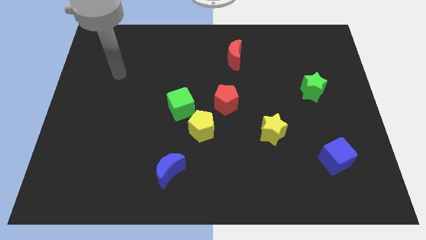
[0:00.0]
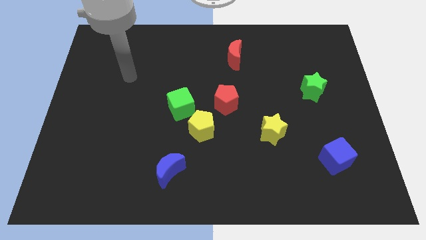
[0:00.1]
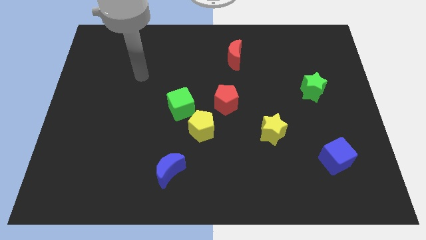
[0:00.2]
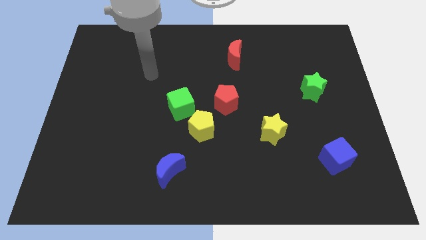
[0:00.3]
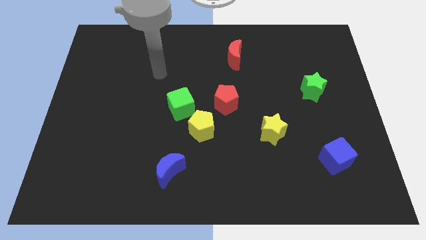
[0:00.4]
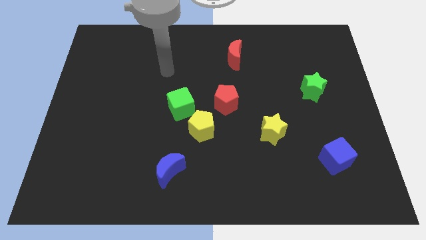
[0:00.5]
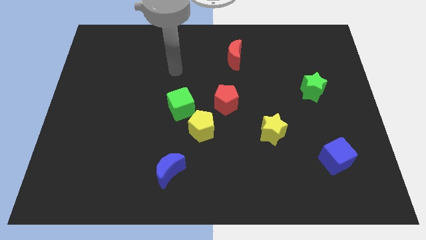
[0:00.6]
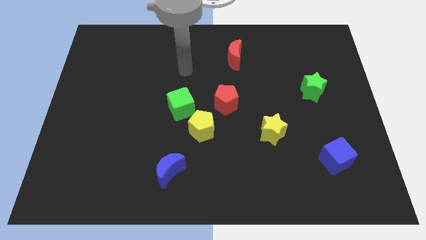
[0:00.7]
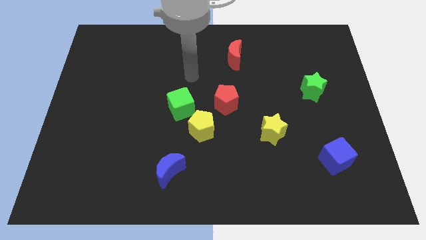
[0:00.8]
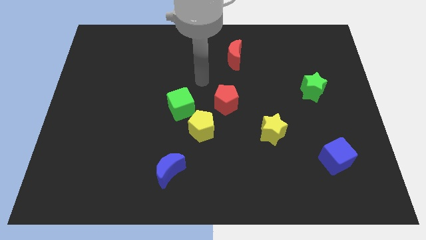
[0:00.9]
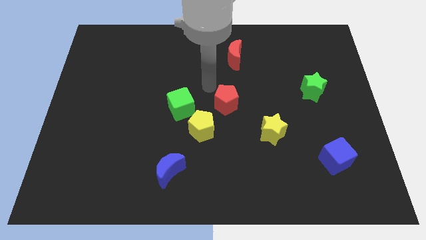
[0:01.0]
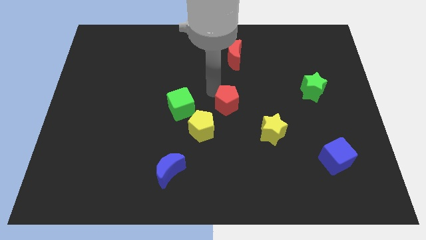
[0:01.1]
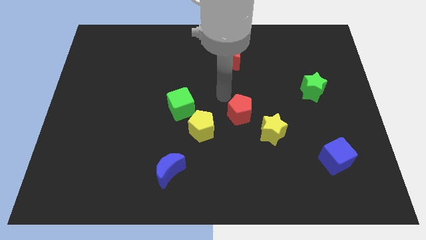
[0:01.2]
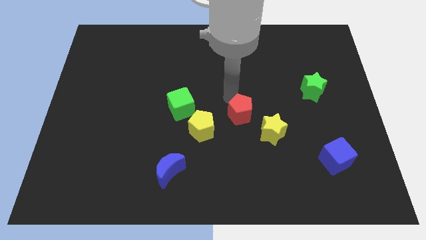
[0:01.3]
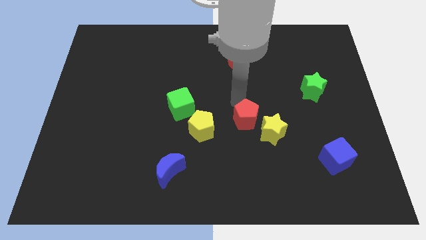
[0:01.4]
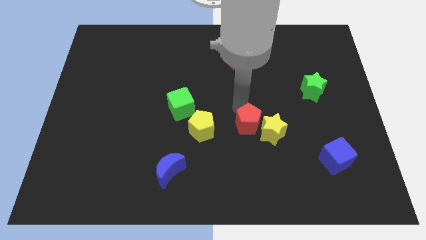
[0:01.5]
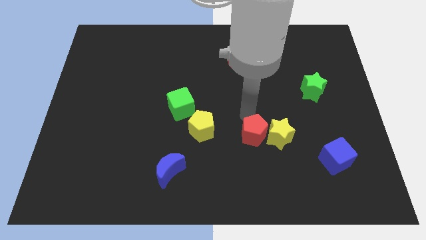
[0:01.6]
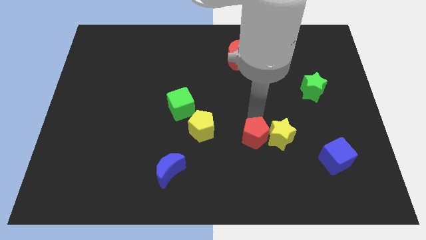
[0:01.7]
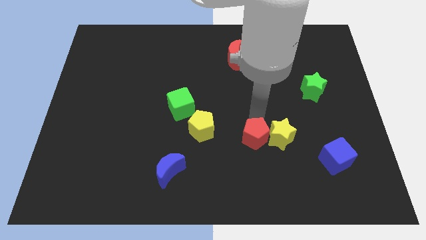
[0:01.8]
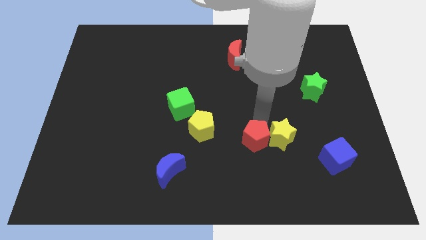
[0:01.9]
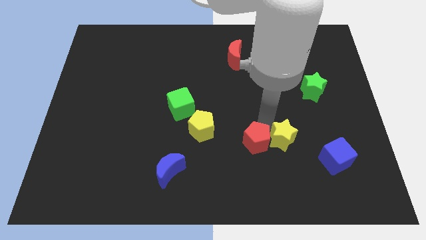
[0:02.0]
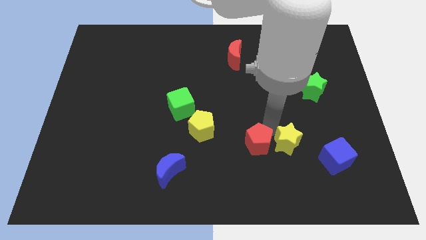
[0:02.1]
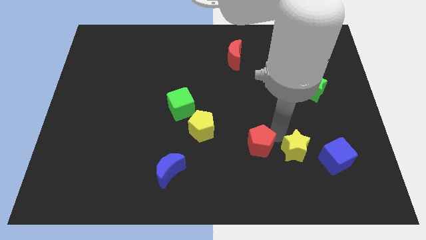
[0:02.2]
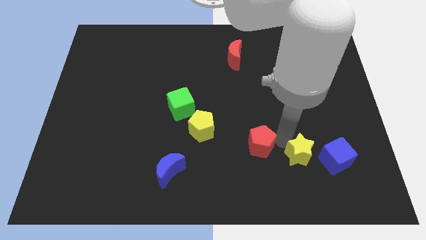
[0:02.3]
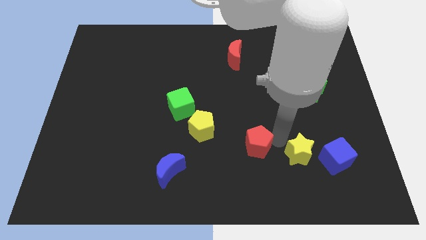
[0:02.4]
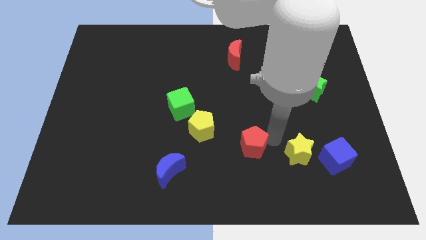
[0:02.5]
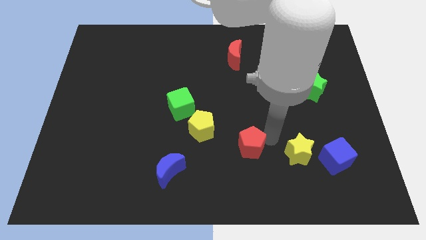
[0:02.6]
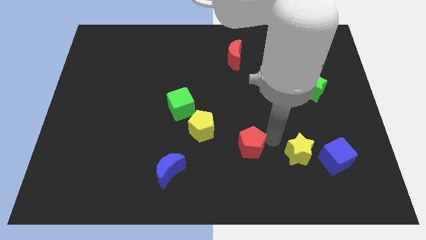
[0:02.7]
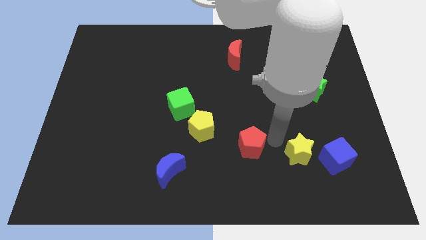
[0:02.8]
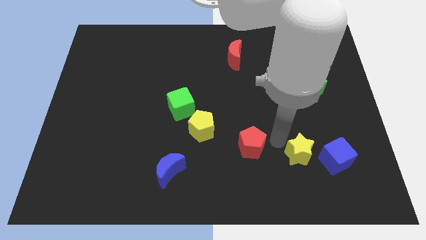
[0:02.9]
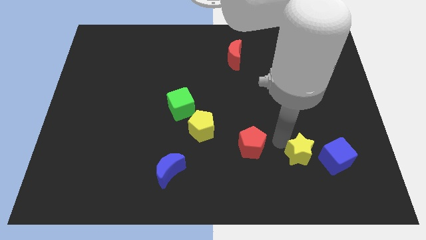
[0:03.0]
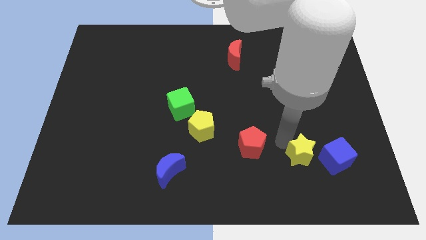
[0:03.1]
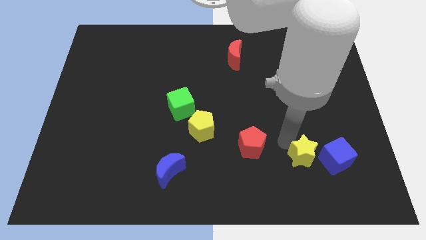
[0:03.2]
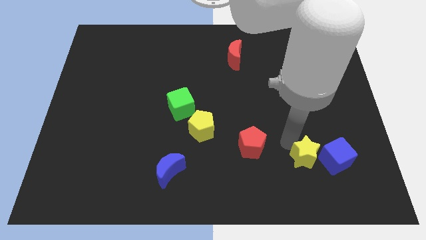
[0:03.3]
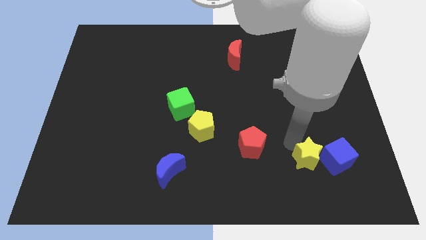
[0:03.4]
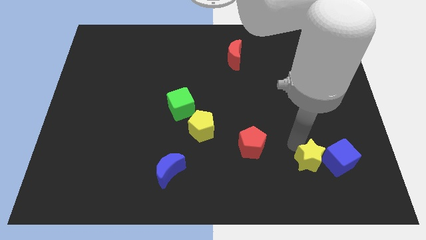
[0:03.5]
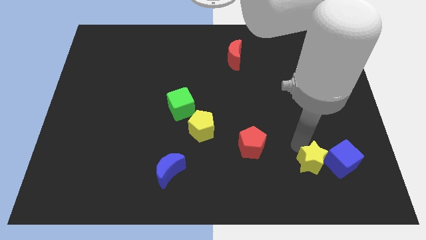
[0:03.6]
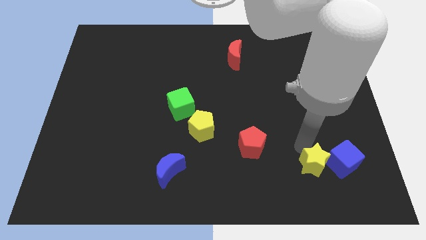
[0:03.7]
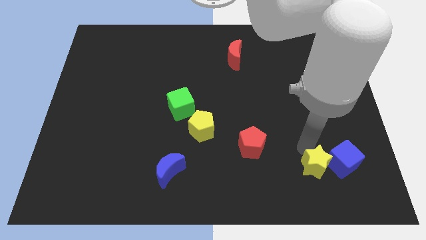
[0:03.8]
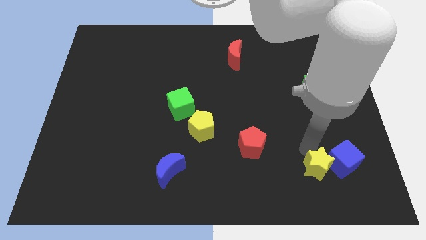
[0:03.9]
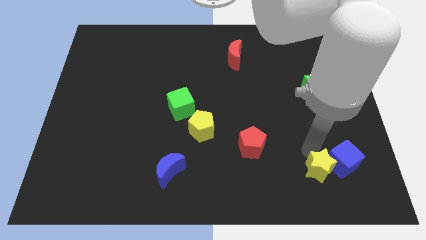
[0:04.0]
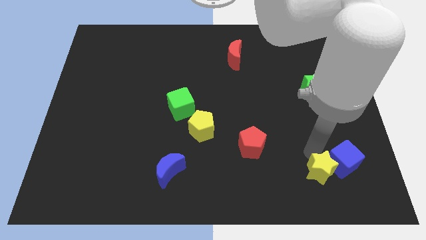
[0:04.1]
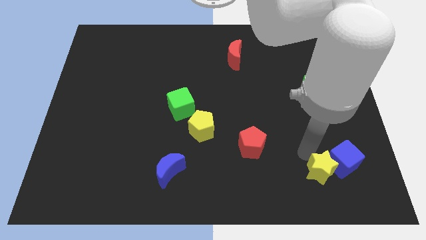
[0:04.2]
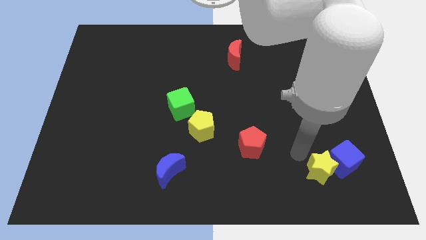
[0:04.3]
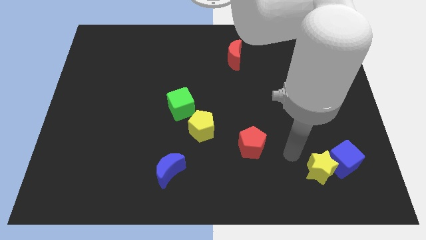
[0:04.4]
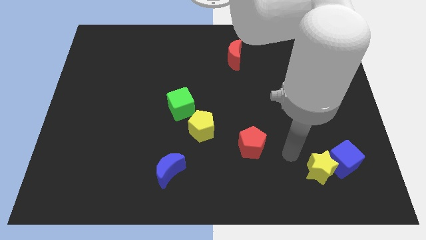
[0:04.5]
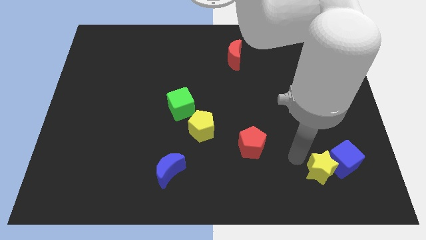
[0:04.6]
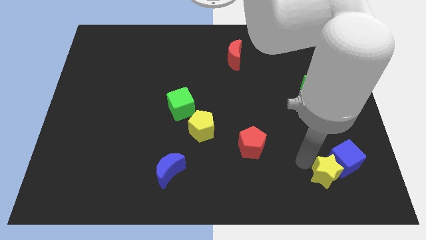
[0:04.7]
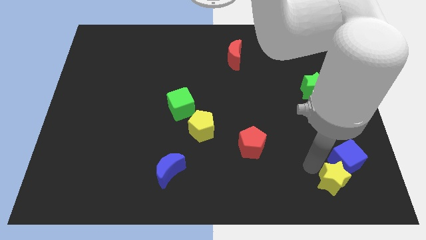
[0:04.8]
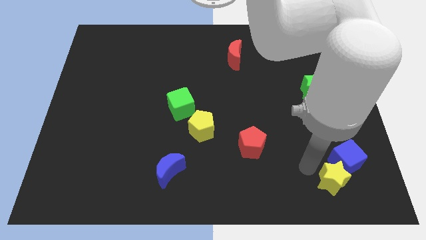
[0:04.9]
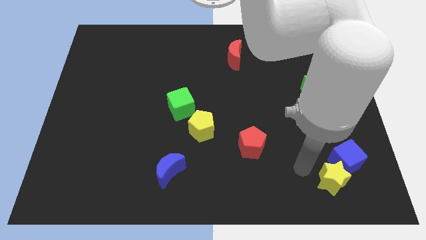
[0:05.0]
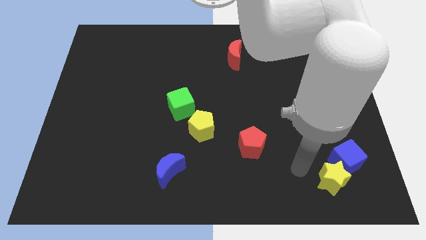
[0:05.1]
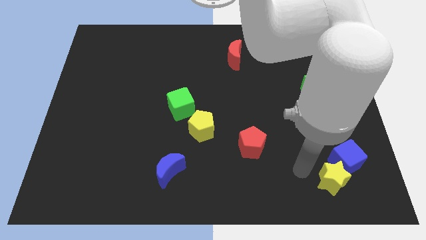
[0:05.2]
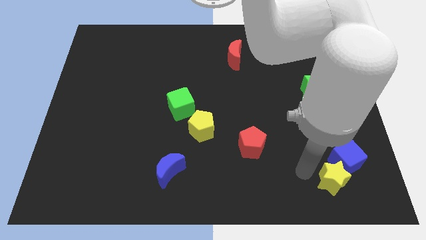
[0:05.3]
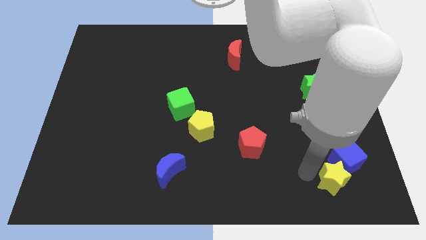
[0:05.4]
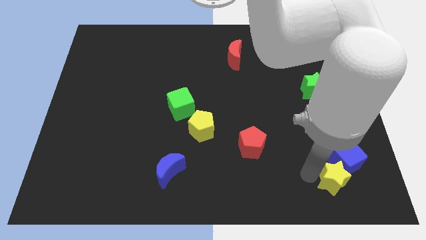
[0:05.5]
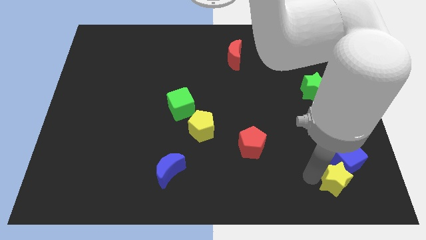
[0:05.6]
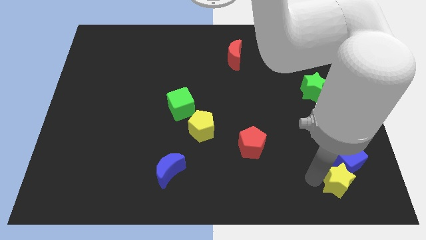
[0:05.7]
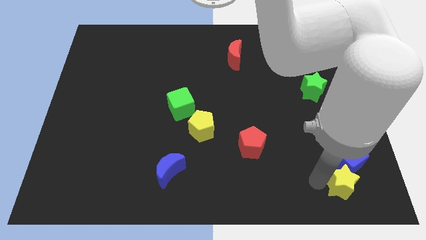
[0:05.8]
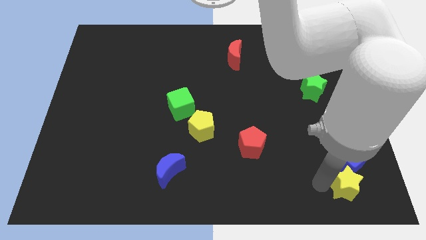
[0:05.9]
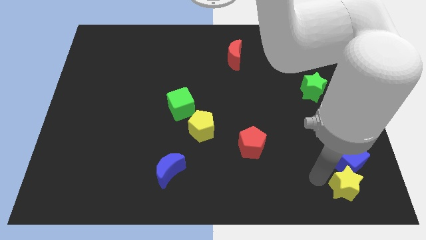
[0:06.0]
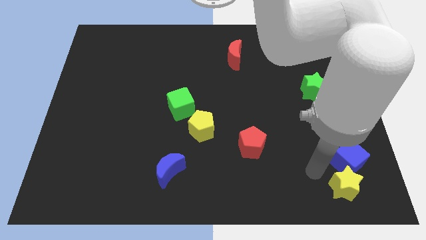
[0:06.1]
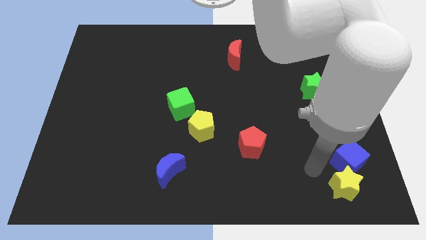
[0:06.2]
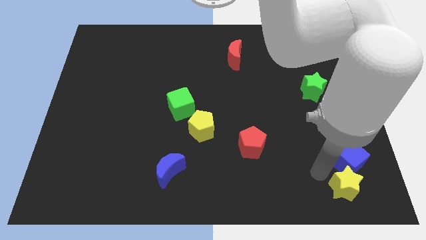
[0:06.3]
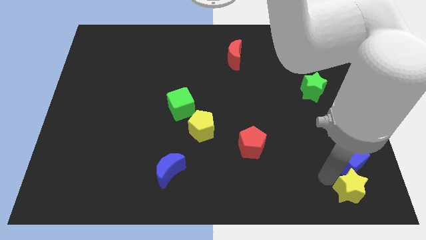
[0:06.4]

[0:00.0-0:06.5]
push the yellow star to the lower right corner
